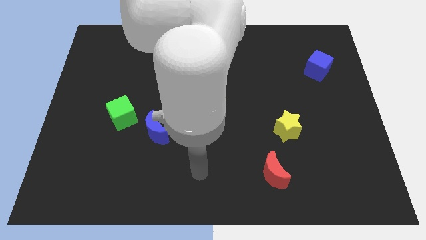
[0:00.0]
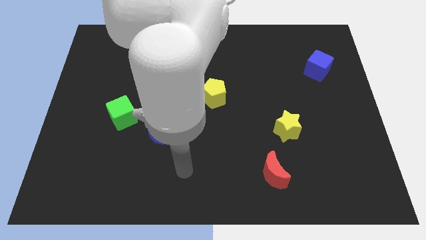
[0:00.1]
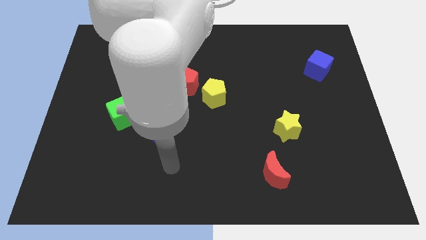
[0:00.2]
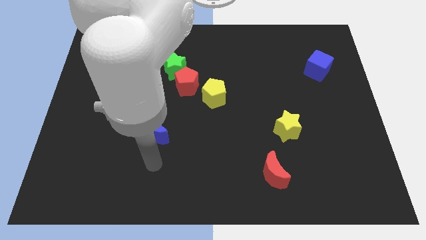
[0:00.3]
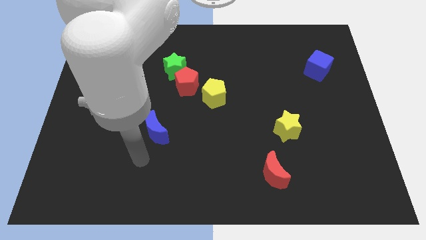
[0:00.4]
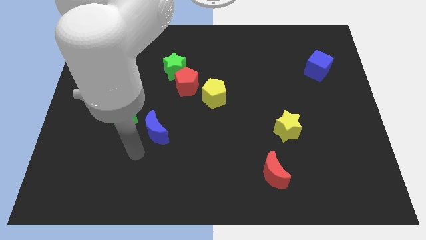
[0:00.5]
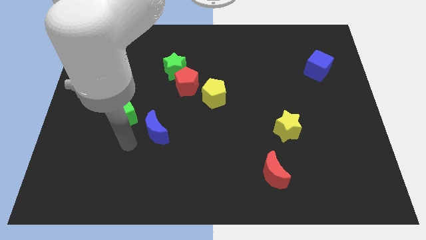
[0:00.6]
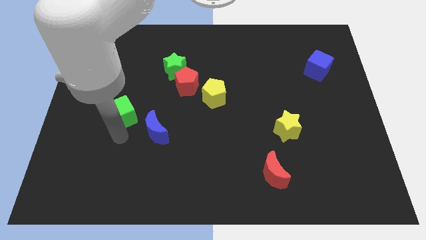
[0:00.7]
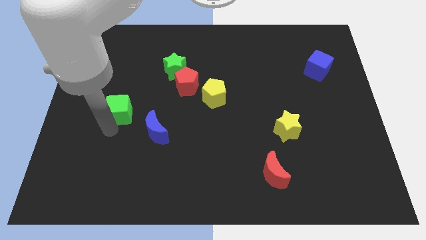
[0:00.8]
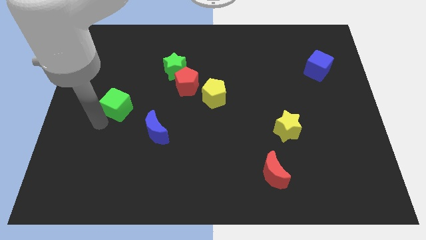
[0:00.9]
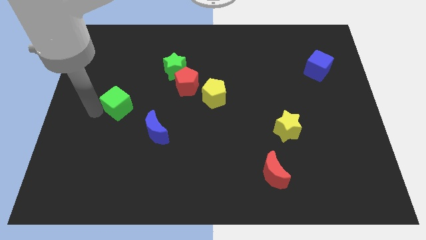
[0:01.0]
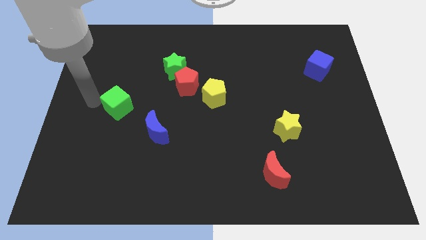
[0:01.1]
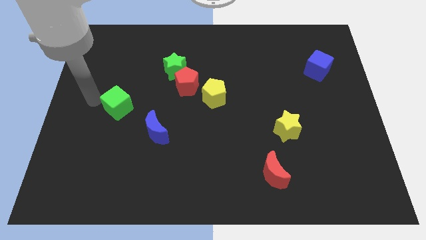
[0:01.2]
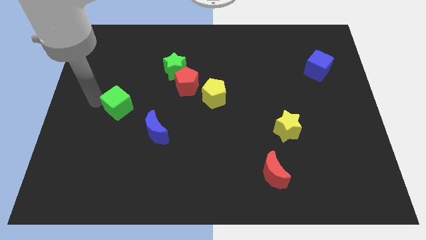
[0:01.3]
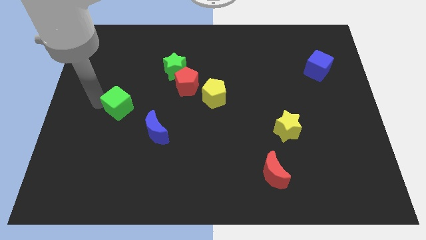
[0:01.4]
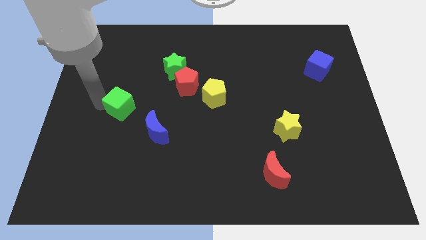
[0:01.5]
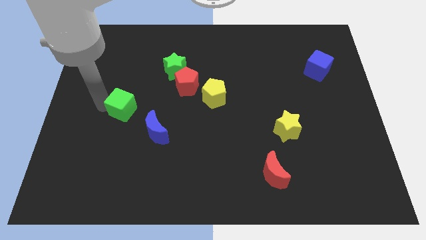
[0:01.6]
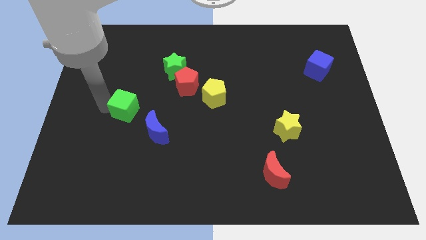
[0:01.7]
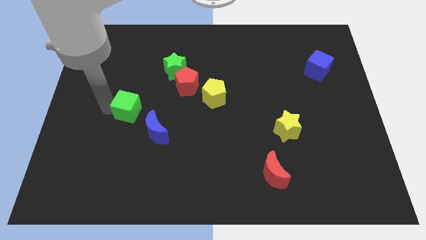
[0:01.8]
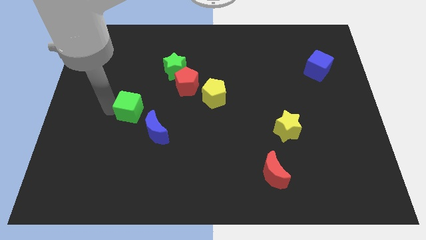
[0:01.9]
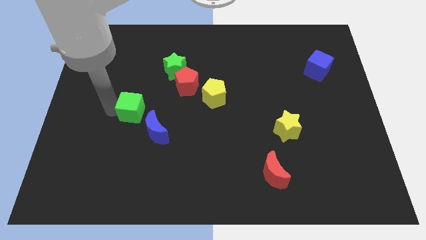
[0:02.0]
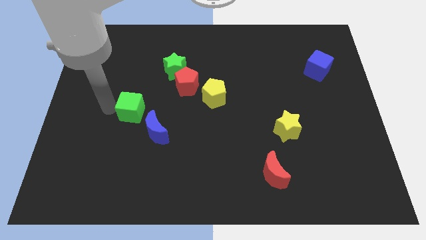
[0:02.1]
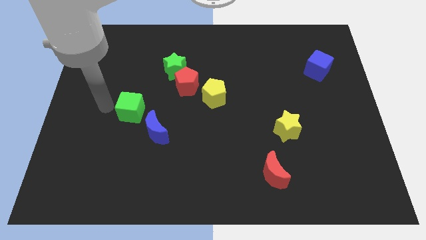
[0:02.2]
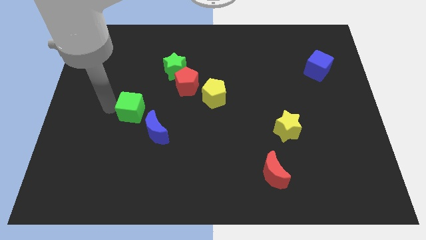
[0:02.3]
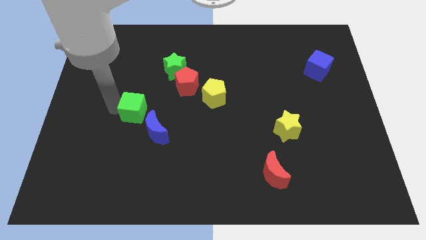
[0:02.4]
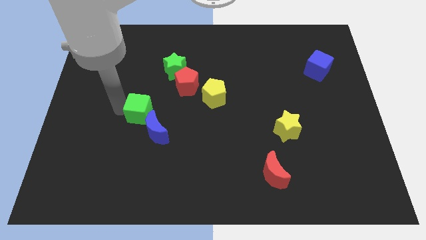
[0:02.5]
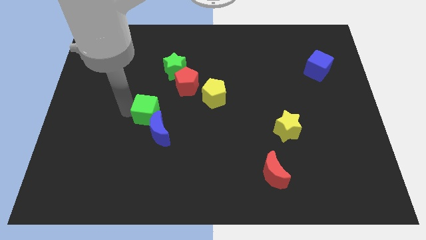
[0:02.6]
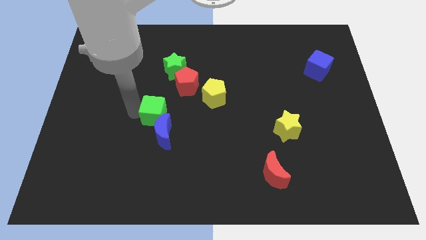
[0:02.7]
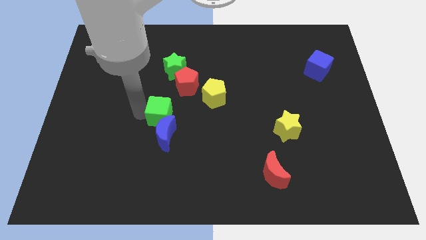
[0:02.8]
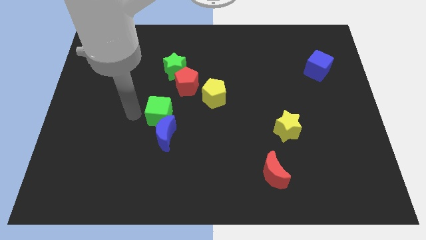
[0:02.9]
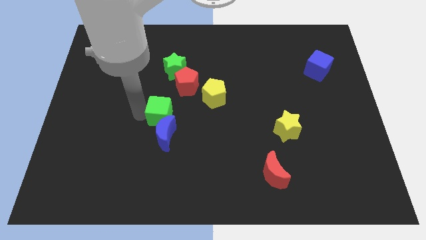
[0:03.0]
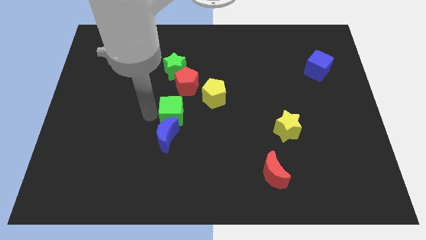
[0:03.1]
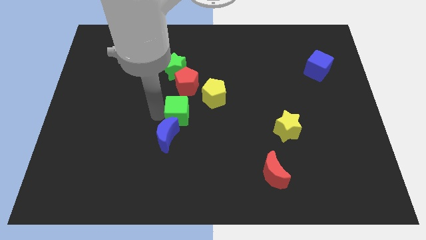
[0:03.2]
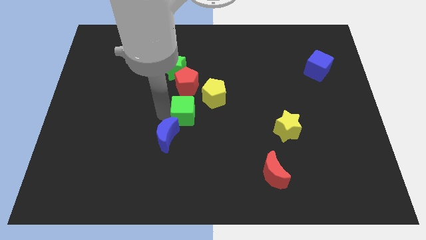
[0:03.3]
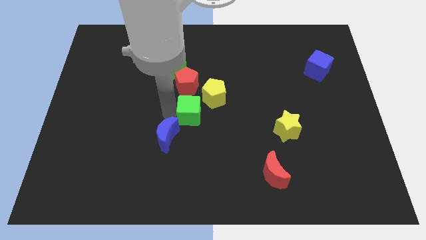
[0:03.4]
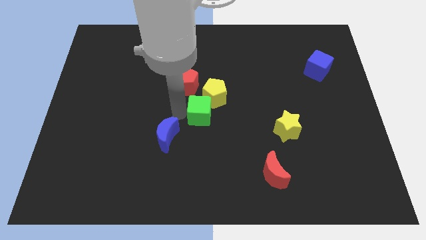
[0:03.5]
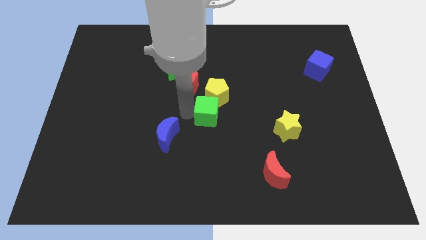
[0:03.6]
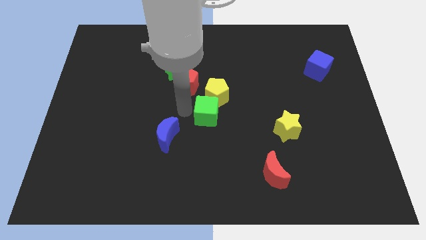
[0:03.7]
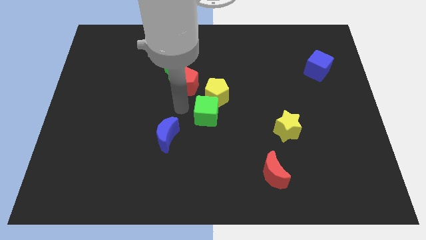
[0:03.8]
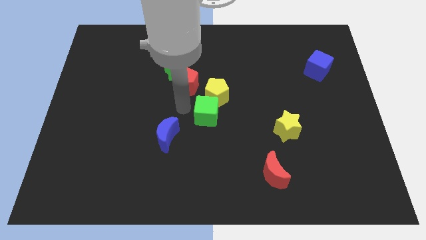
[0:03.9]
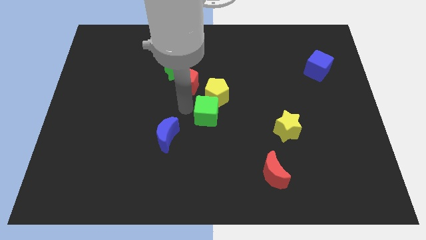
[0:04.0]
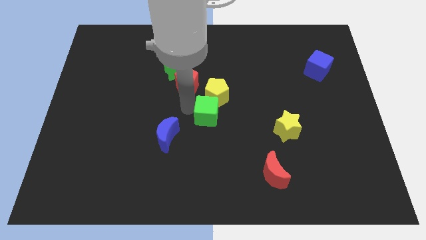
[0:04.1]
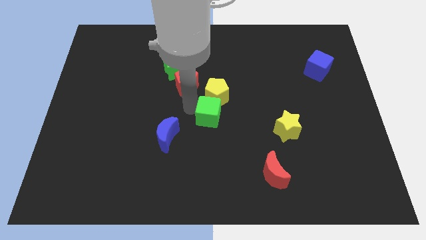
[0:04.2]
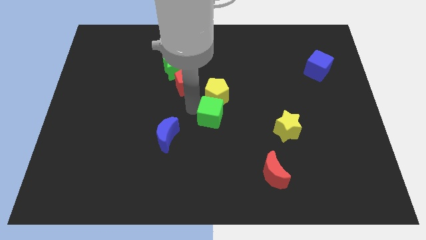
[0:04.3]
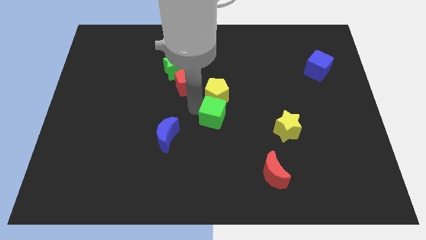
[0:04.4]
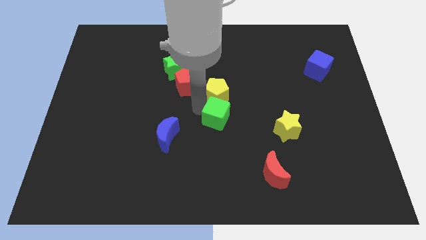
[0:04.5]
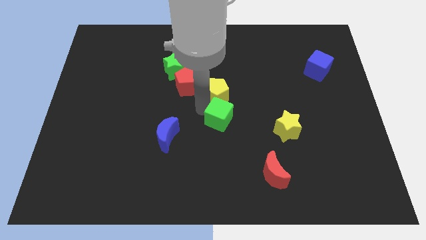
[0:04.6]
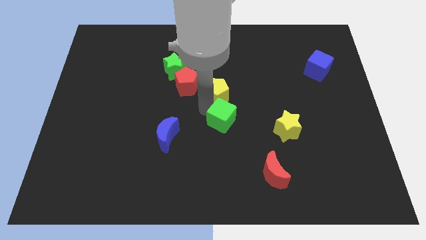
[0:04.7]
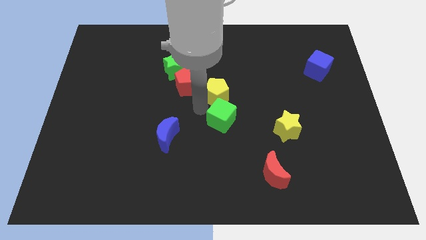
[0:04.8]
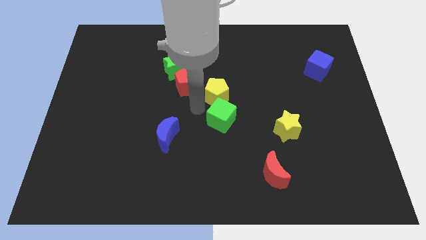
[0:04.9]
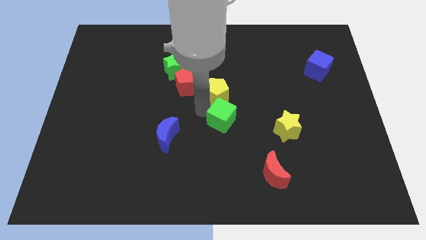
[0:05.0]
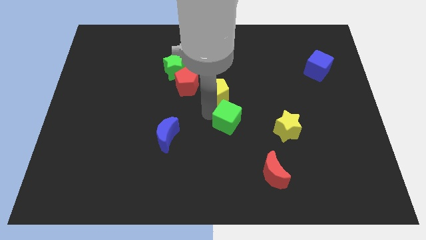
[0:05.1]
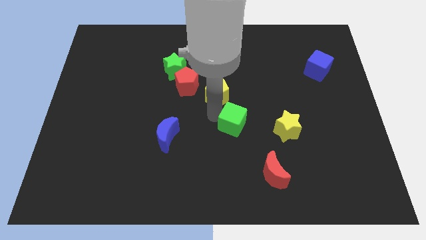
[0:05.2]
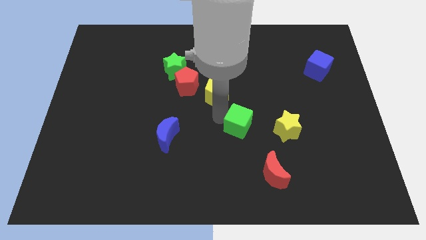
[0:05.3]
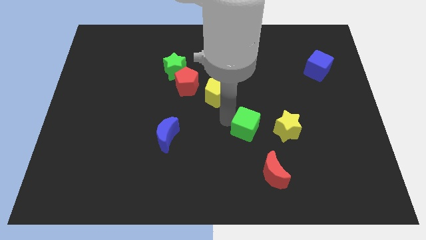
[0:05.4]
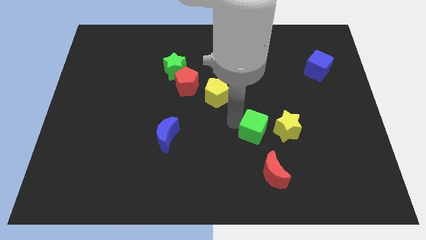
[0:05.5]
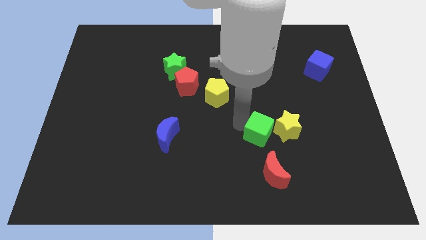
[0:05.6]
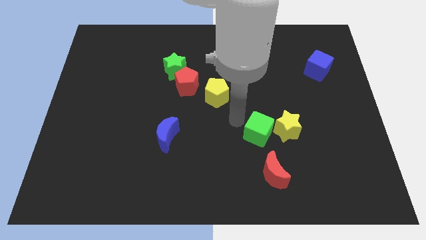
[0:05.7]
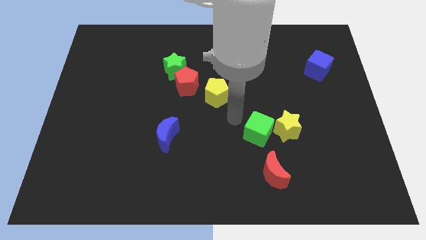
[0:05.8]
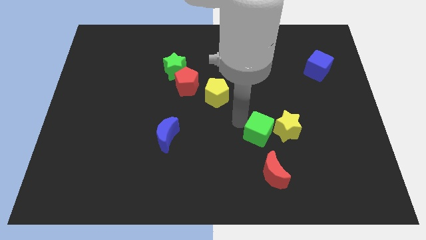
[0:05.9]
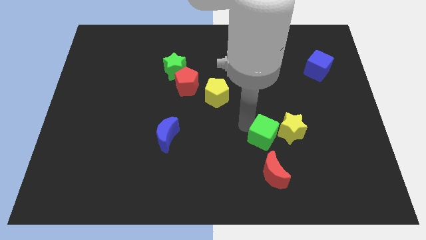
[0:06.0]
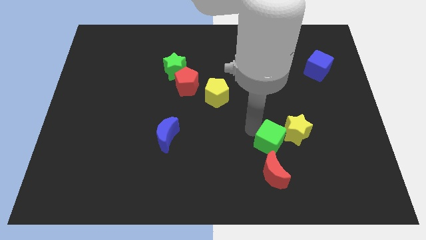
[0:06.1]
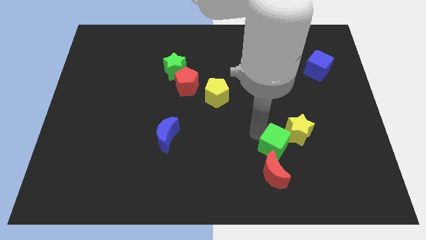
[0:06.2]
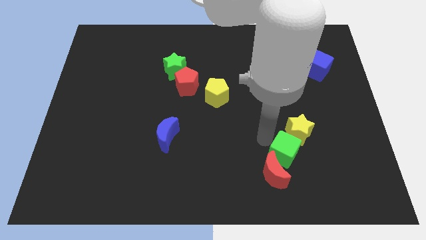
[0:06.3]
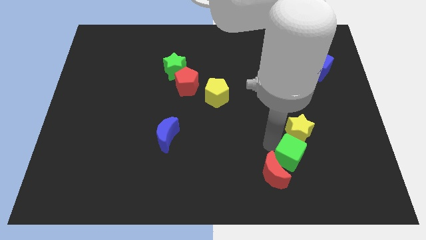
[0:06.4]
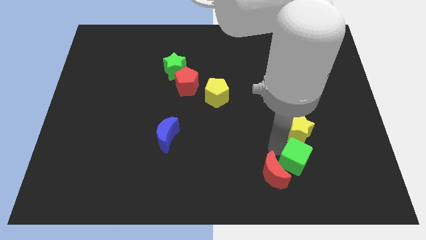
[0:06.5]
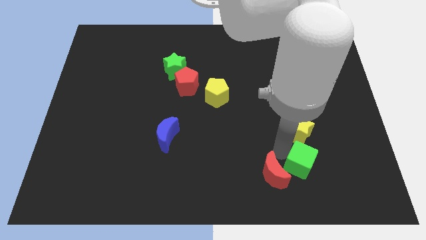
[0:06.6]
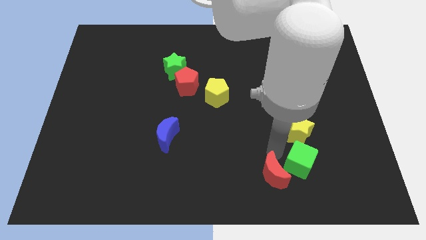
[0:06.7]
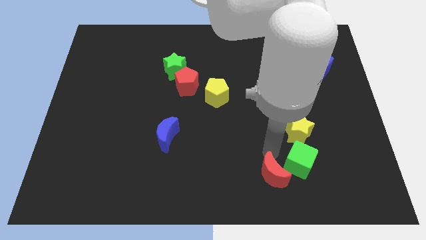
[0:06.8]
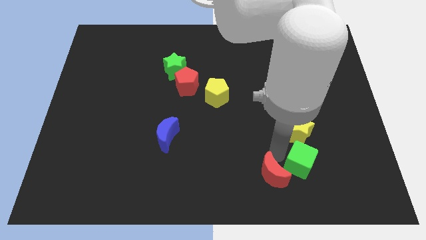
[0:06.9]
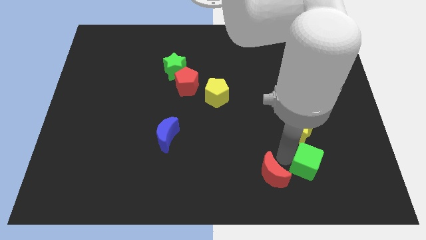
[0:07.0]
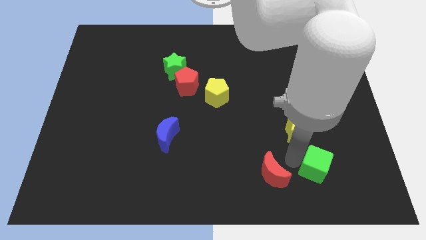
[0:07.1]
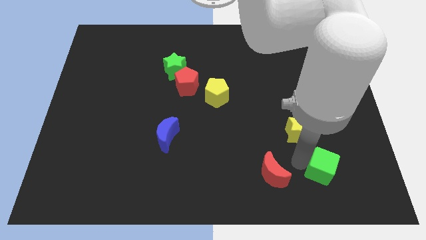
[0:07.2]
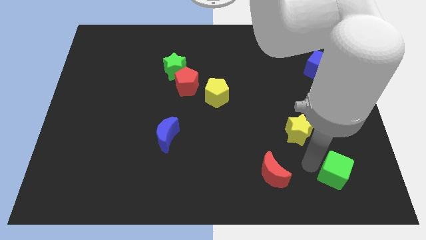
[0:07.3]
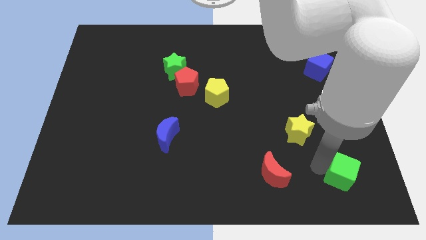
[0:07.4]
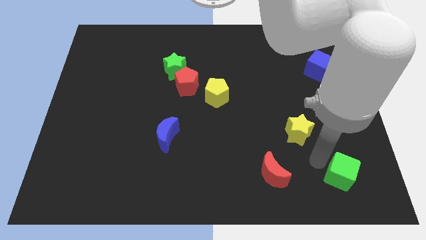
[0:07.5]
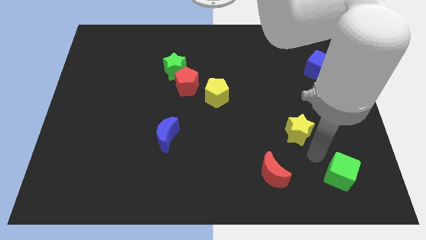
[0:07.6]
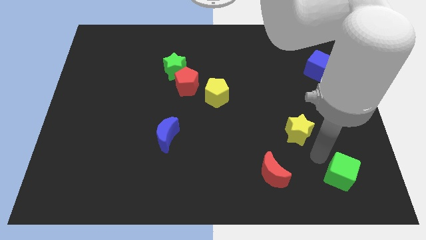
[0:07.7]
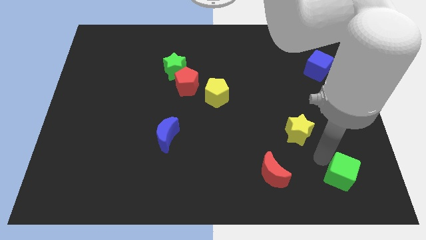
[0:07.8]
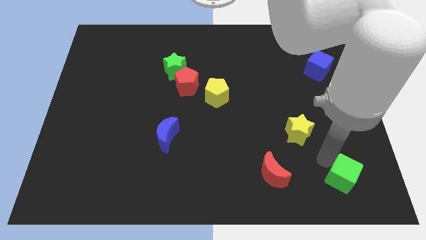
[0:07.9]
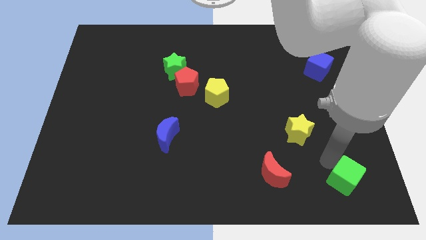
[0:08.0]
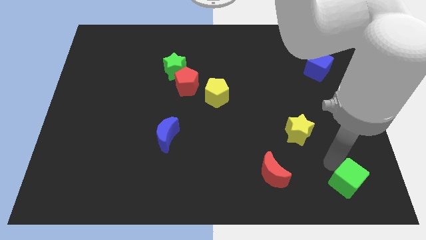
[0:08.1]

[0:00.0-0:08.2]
move the green cube to the bottom right
